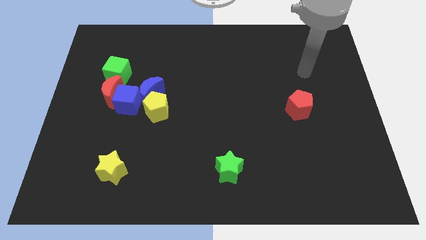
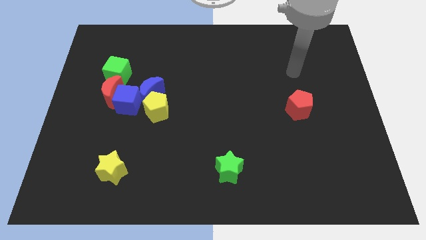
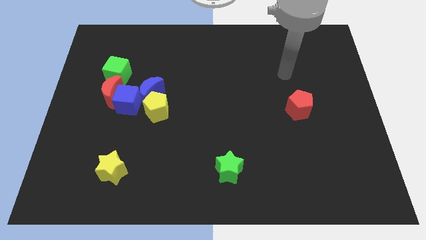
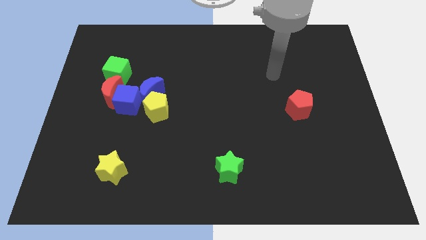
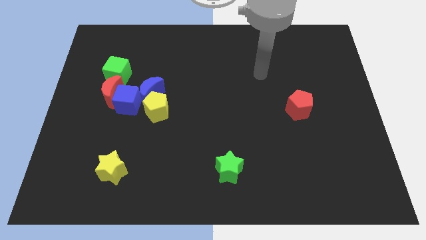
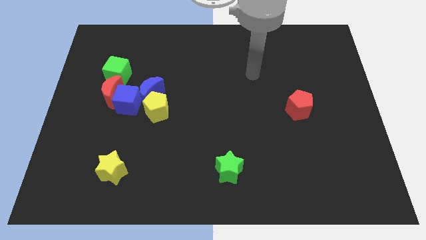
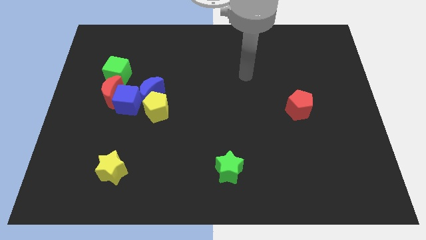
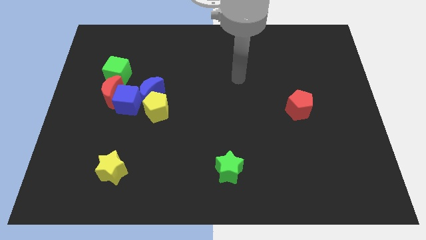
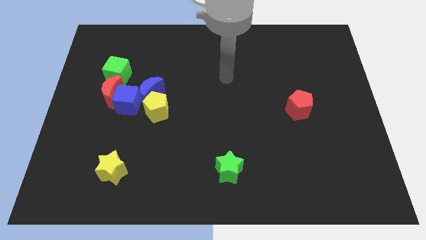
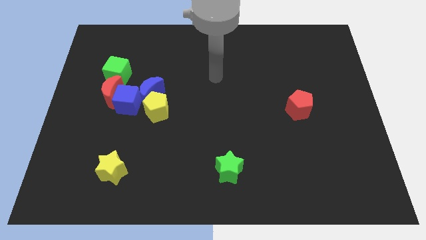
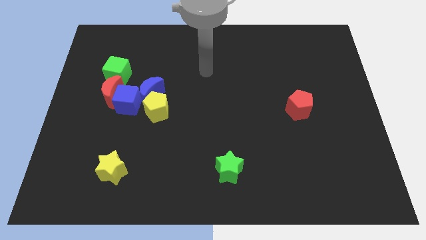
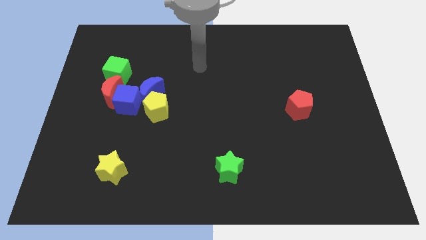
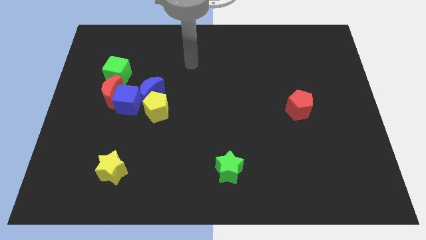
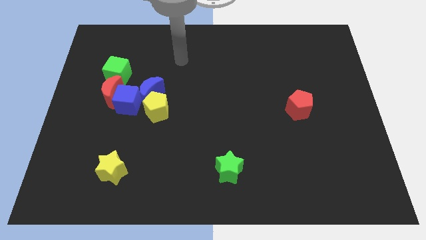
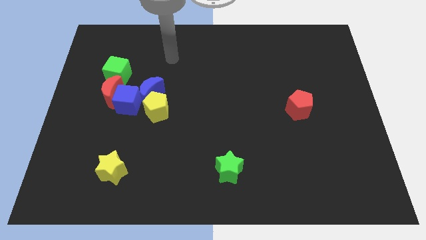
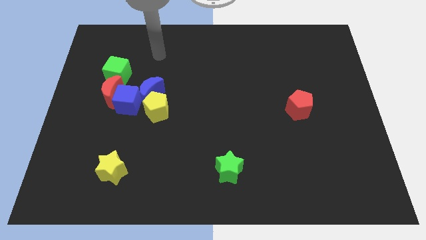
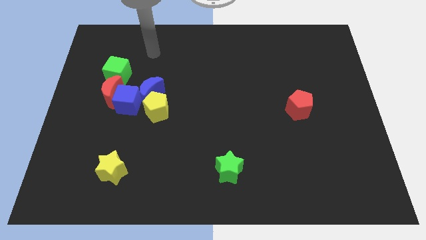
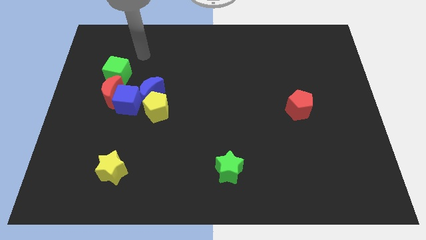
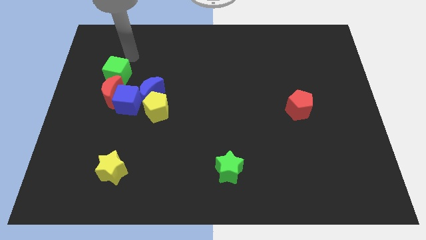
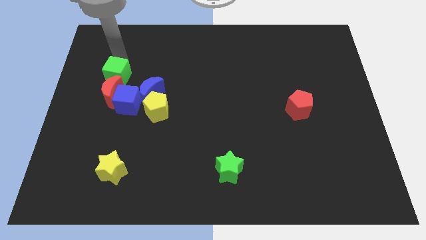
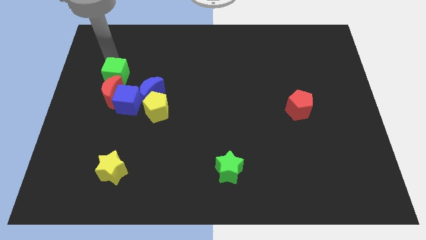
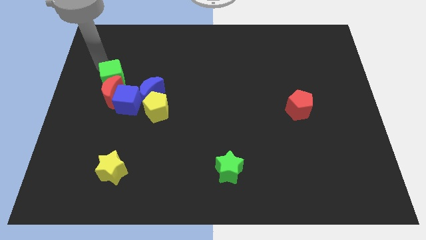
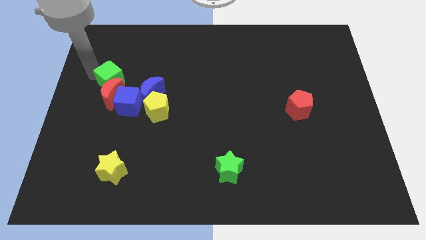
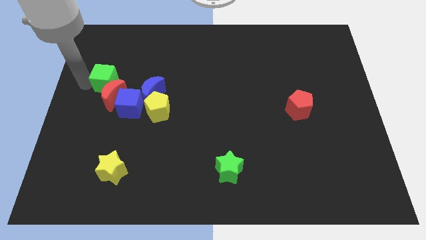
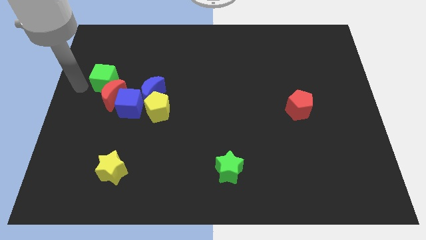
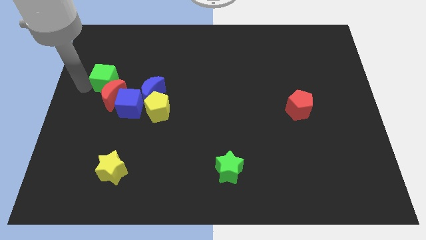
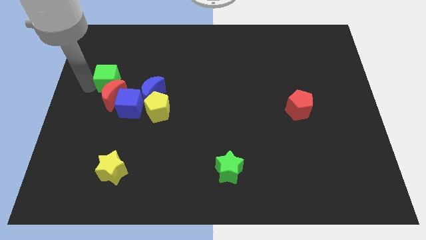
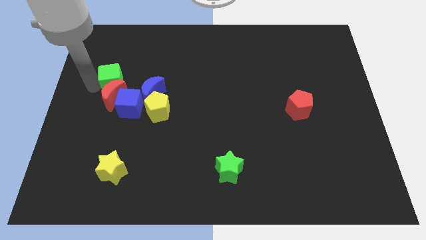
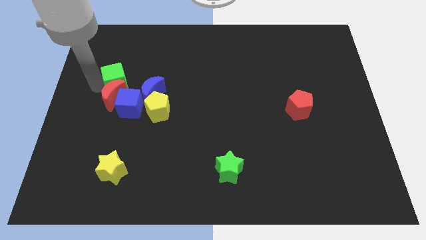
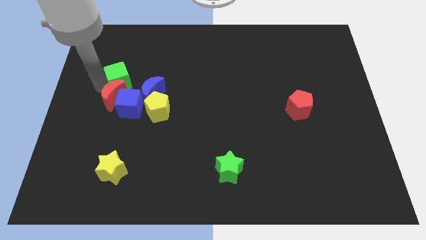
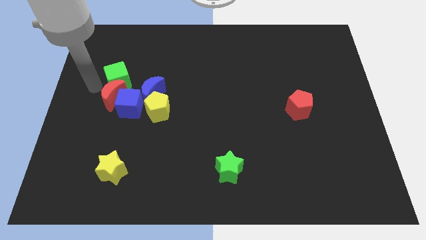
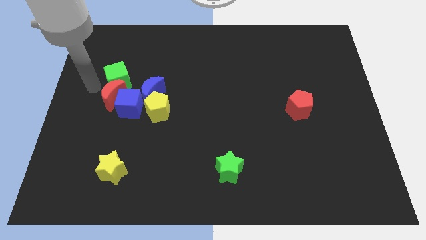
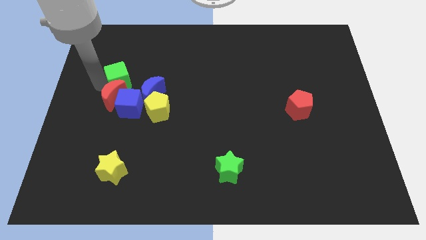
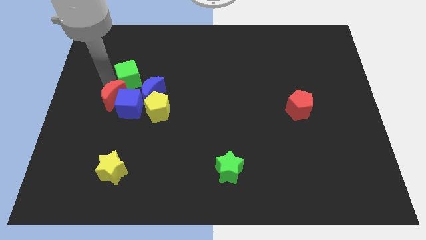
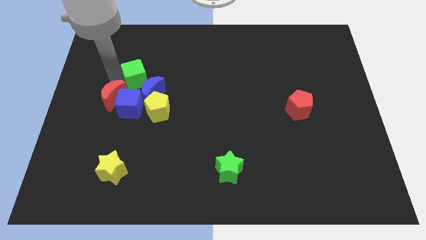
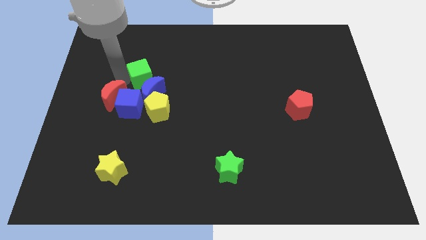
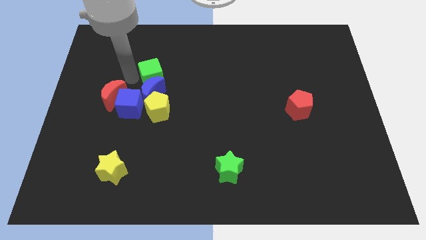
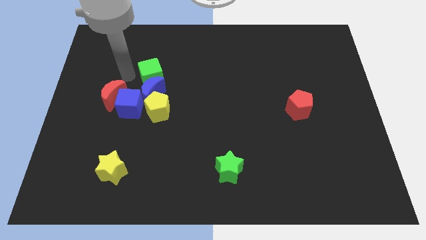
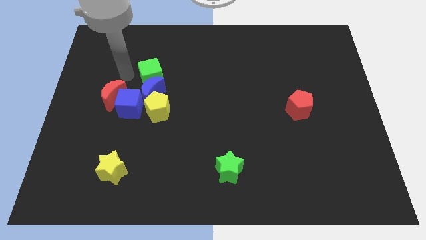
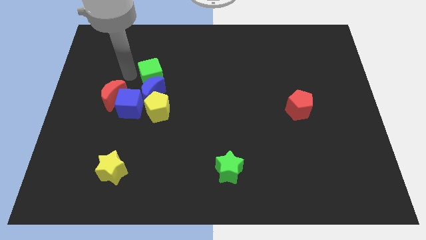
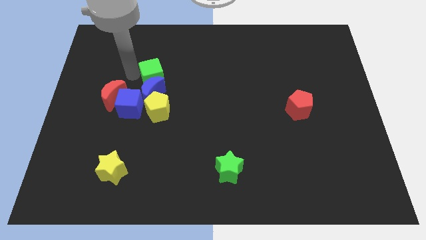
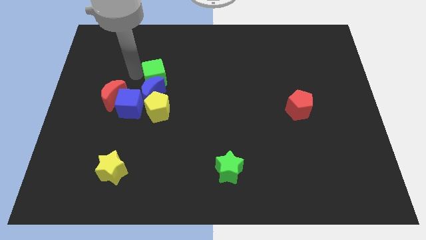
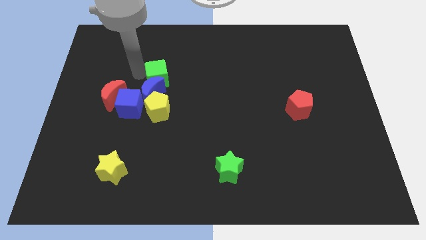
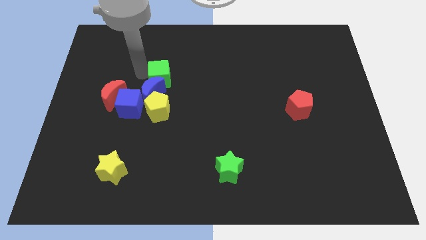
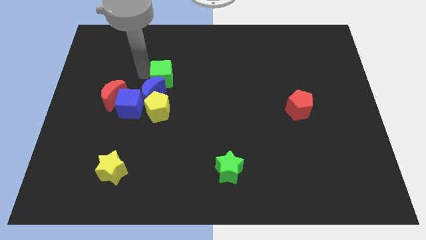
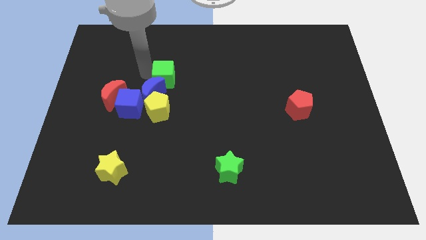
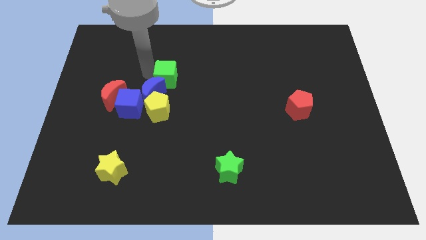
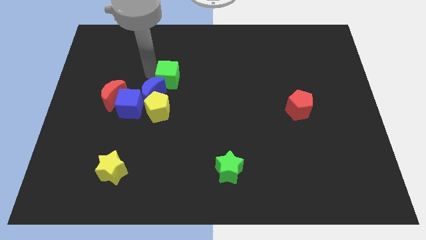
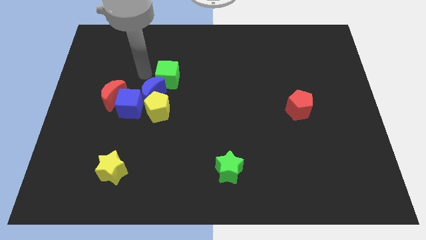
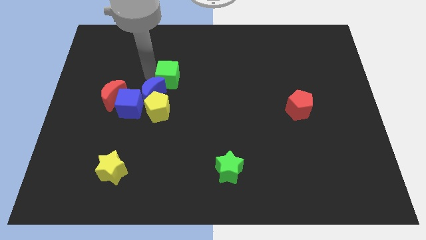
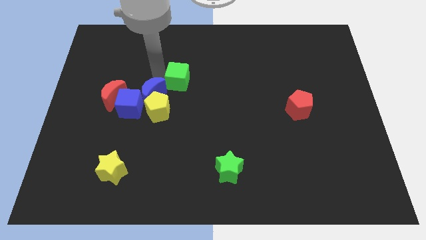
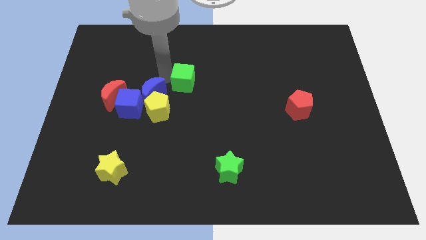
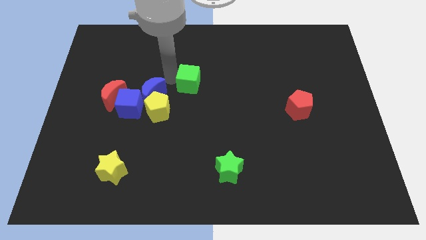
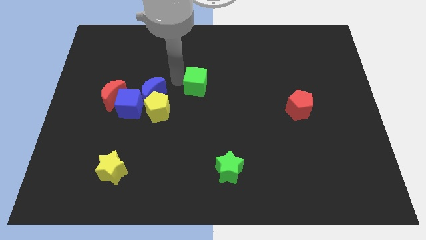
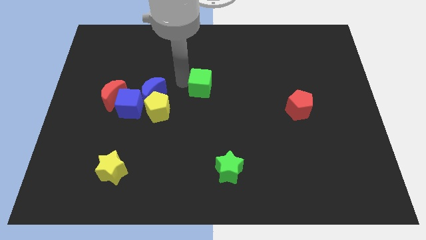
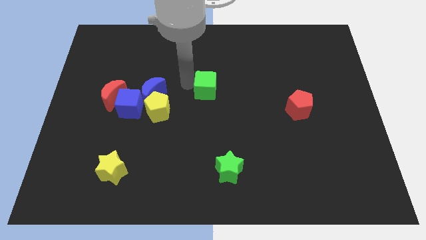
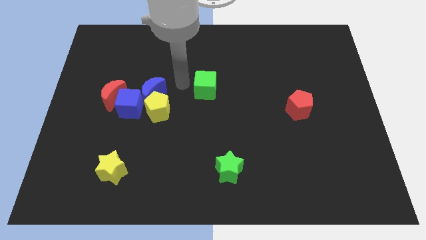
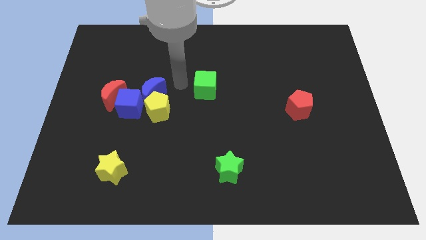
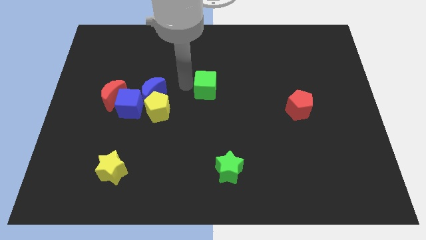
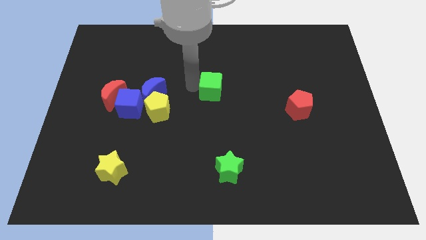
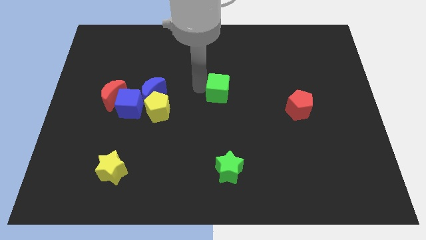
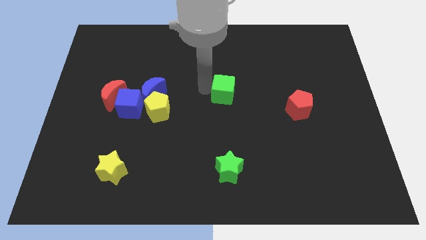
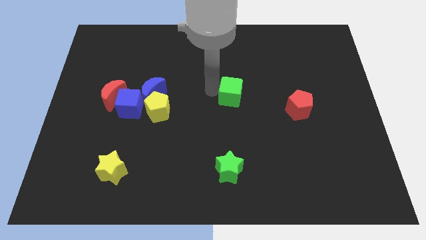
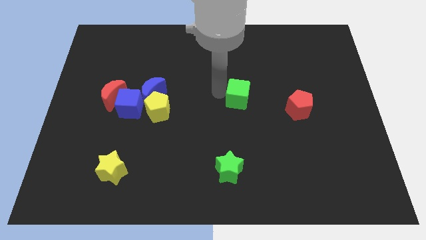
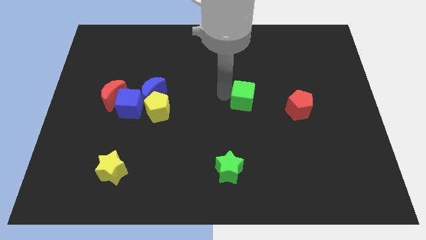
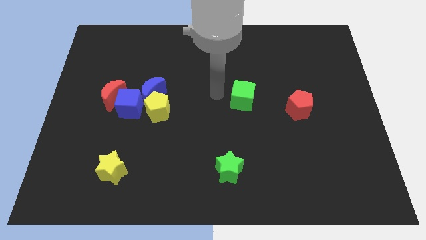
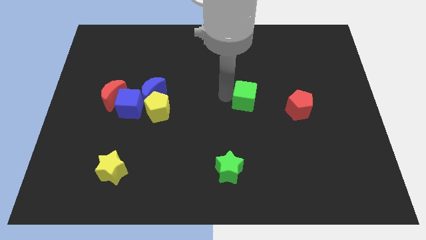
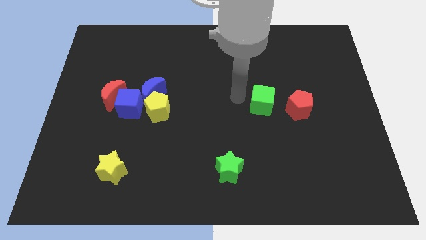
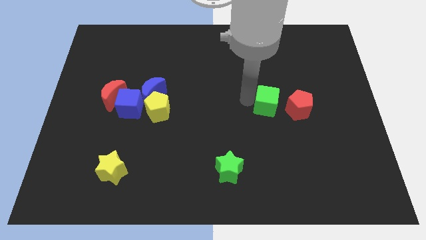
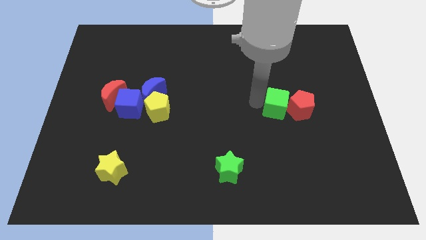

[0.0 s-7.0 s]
push the green cube close to the red pentagon

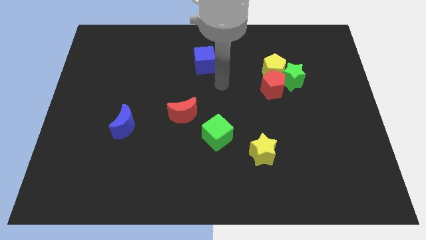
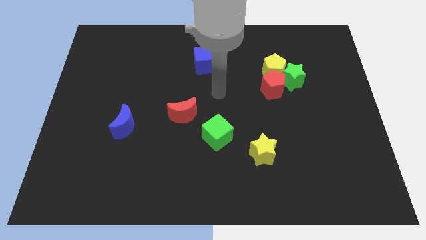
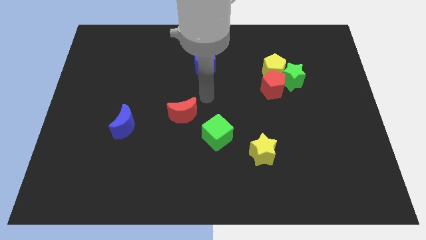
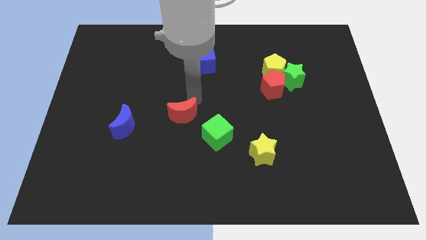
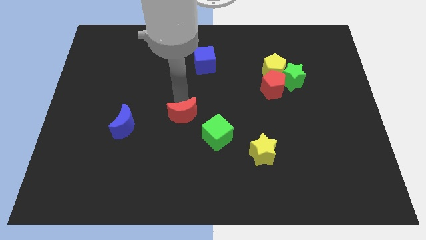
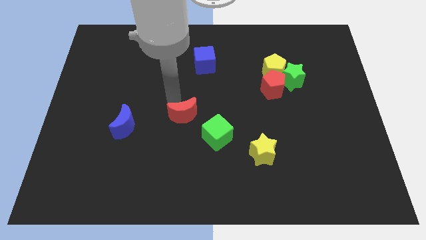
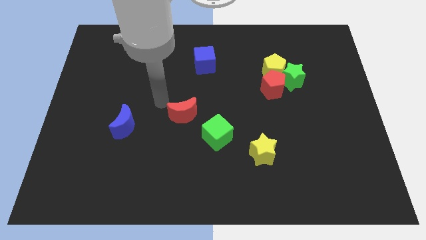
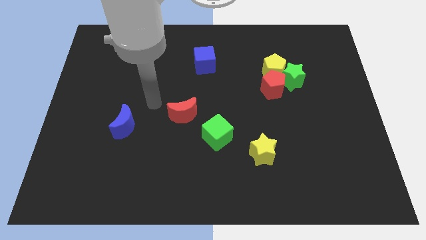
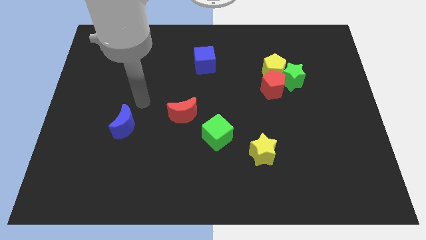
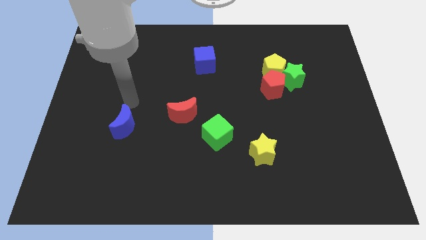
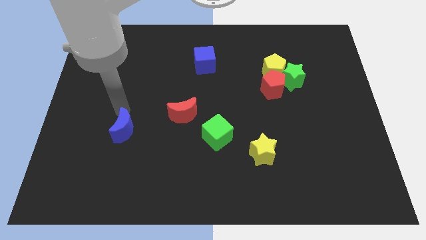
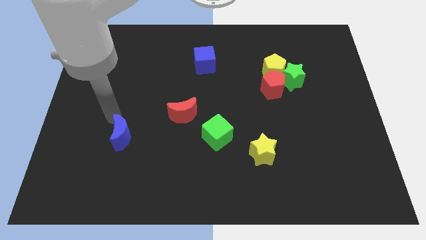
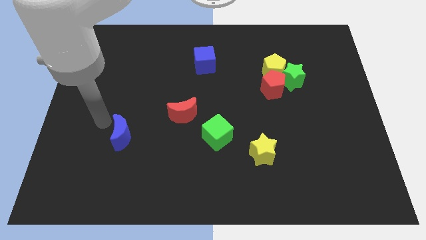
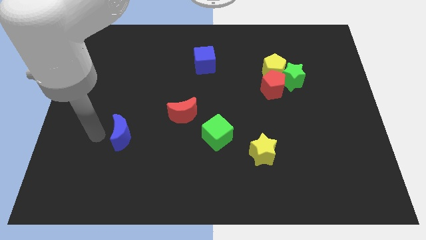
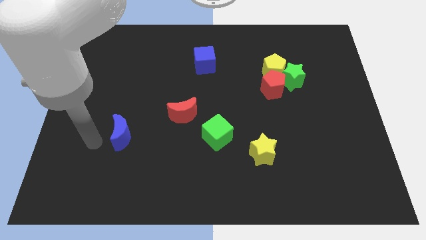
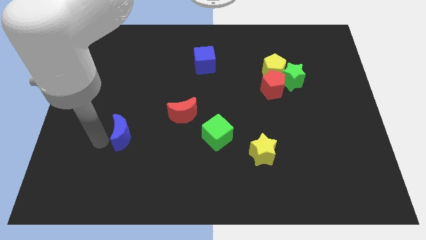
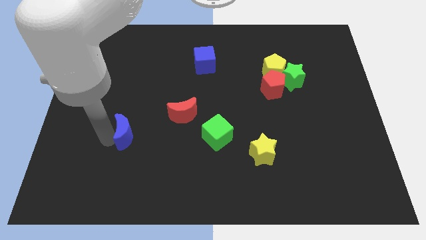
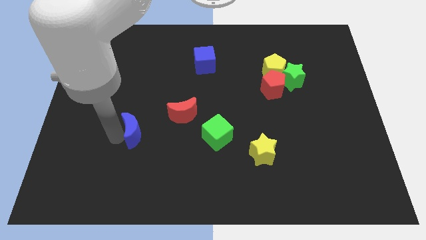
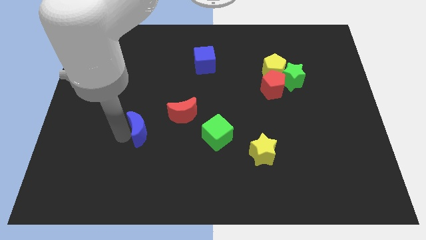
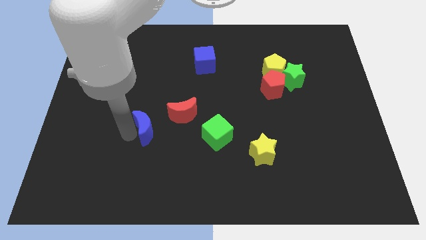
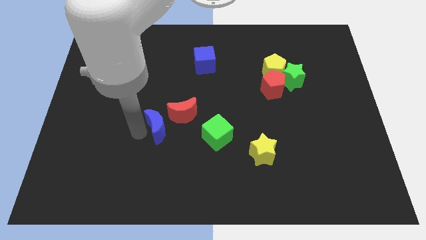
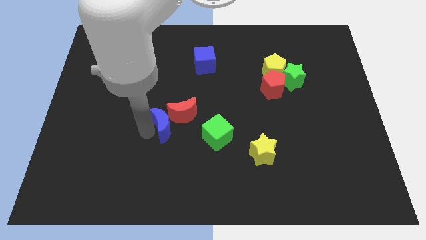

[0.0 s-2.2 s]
move the blue moon next to the red moon
